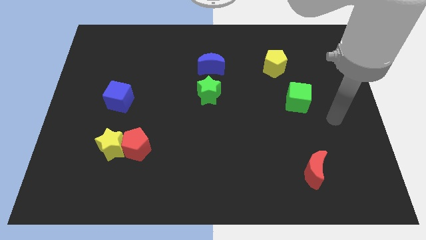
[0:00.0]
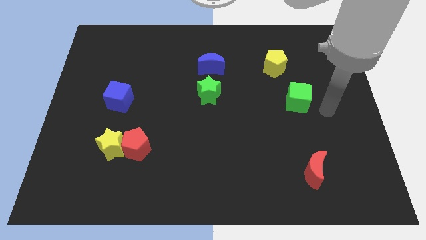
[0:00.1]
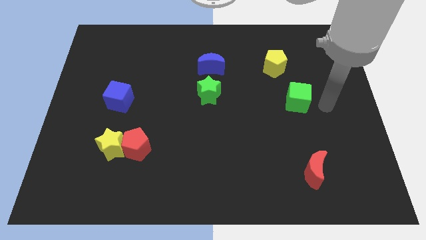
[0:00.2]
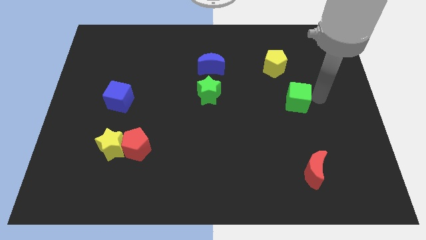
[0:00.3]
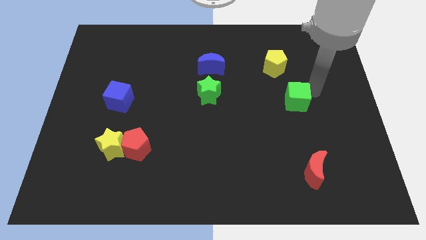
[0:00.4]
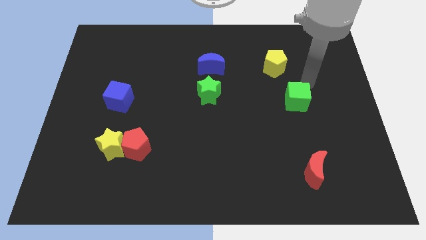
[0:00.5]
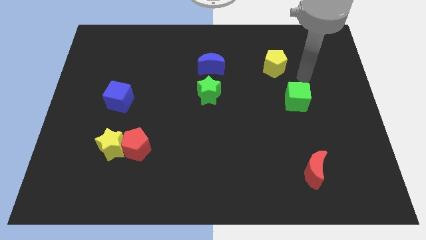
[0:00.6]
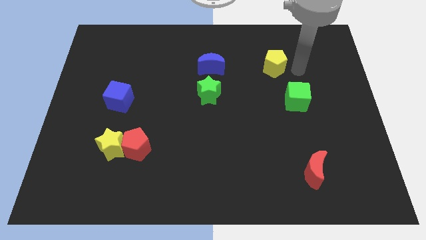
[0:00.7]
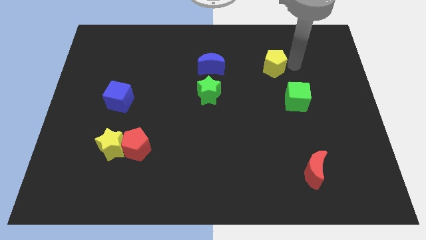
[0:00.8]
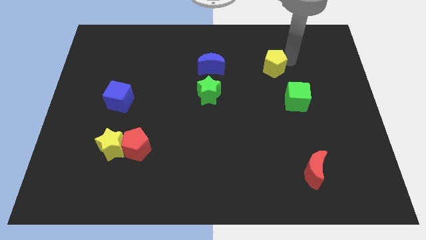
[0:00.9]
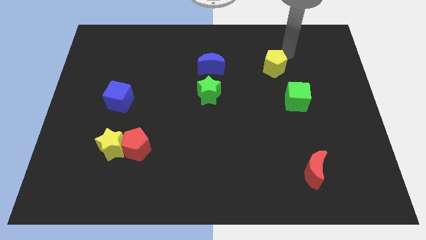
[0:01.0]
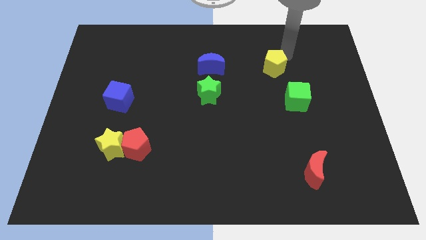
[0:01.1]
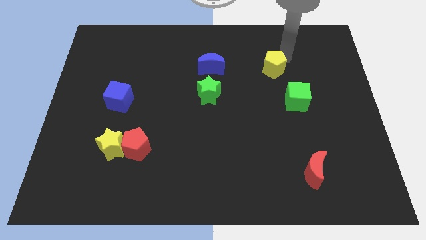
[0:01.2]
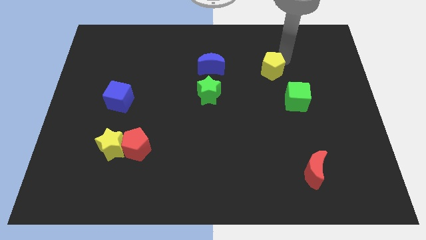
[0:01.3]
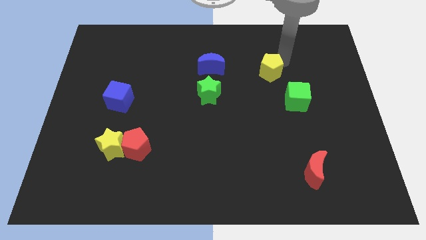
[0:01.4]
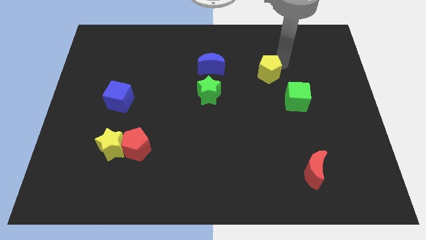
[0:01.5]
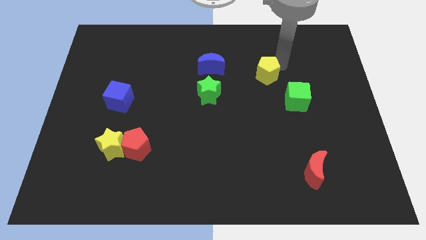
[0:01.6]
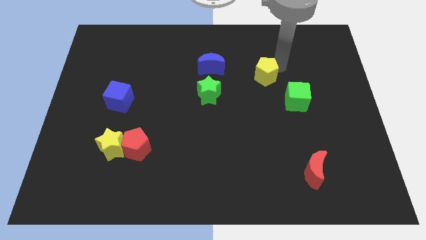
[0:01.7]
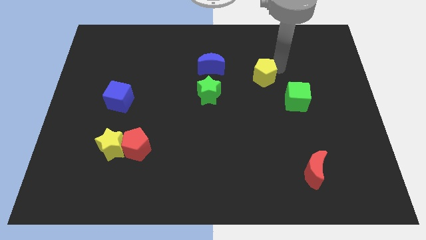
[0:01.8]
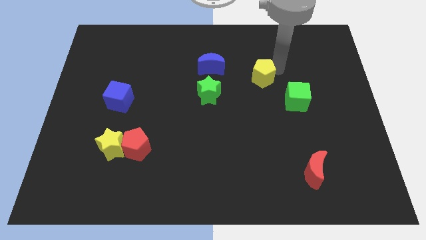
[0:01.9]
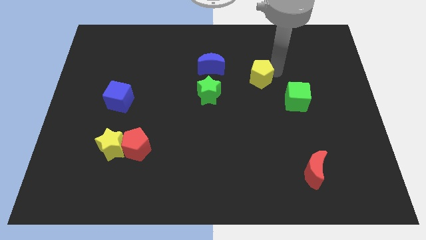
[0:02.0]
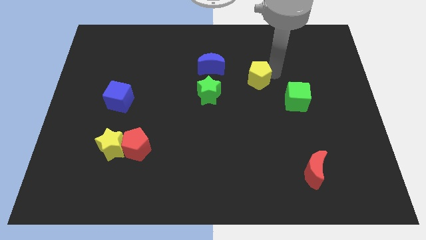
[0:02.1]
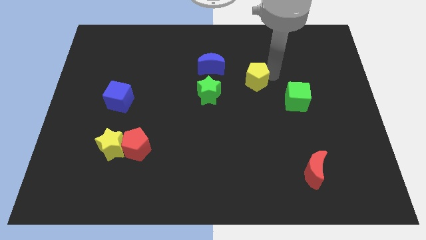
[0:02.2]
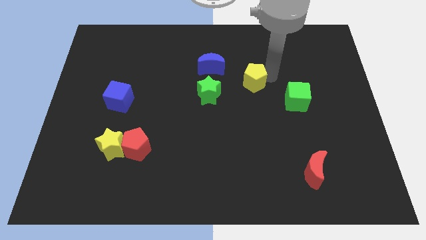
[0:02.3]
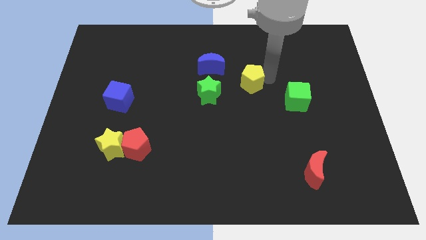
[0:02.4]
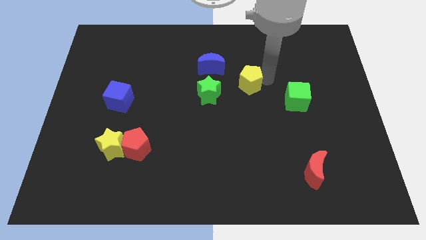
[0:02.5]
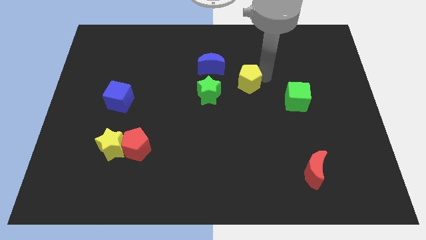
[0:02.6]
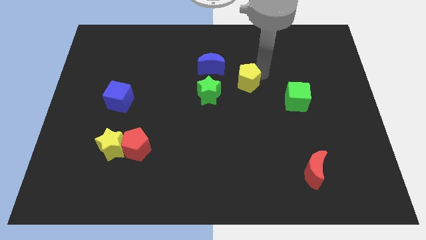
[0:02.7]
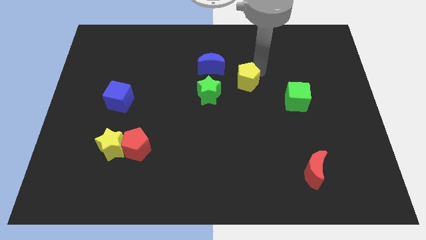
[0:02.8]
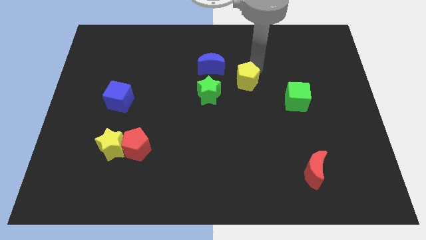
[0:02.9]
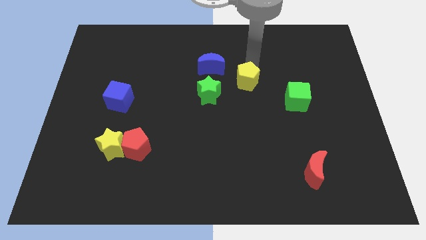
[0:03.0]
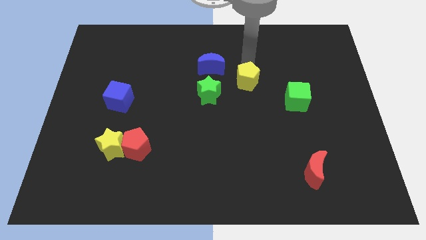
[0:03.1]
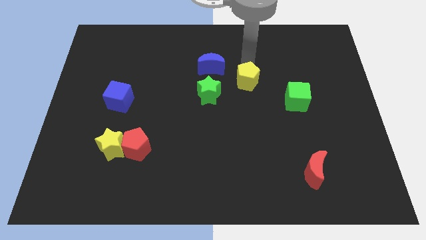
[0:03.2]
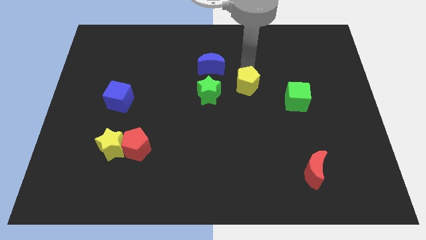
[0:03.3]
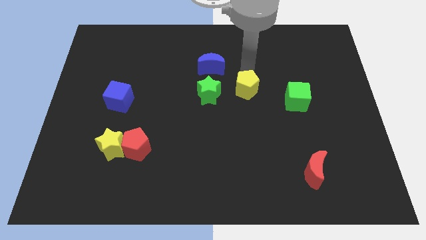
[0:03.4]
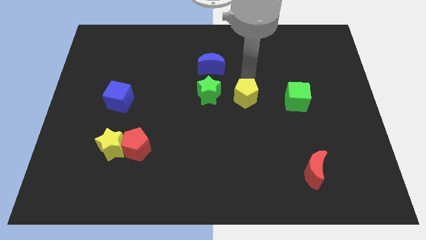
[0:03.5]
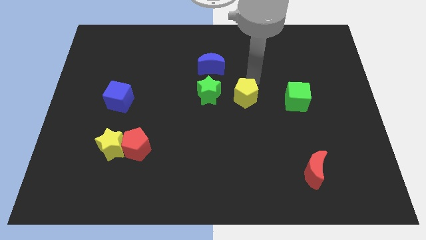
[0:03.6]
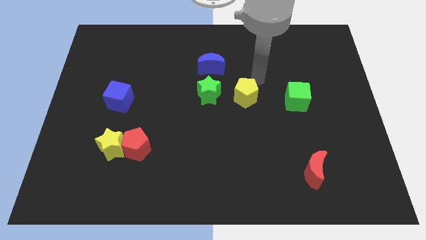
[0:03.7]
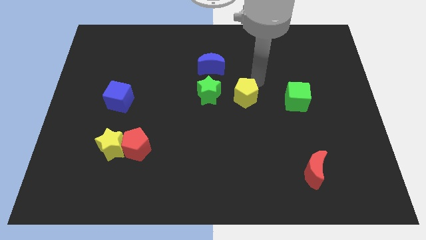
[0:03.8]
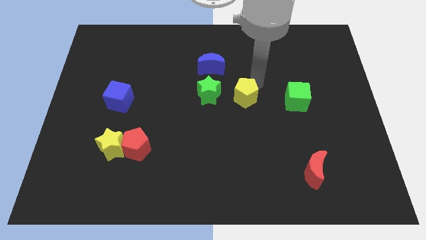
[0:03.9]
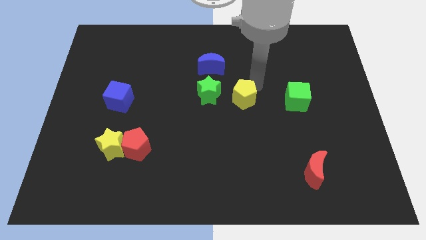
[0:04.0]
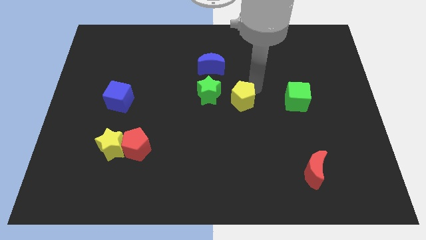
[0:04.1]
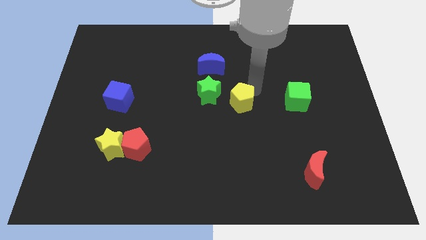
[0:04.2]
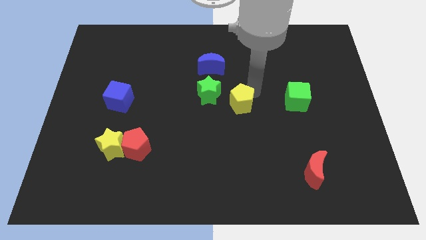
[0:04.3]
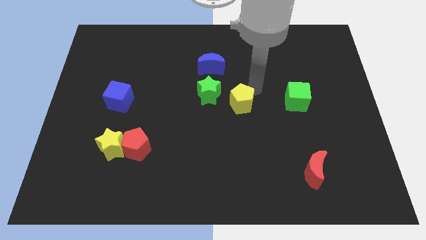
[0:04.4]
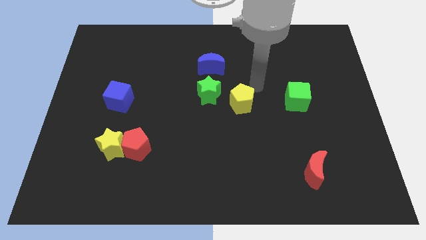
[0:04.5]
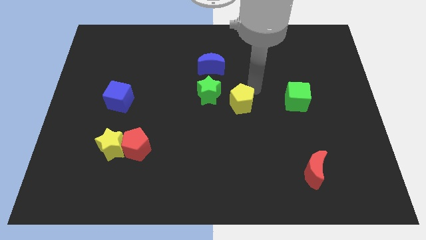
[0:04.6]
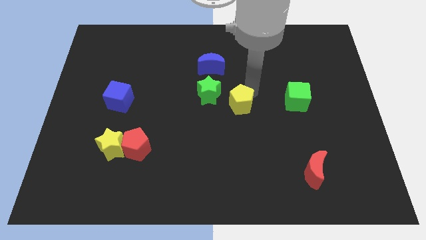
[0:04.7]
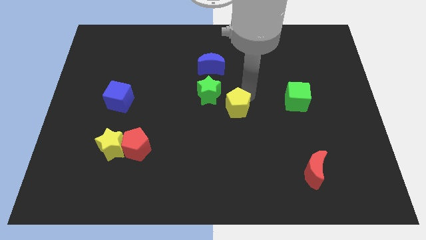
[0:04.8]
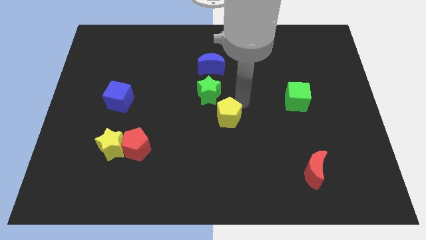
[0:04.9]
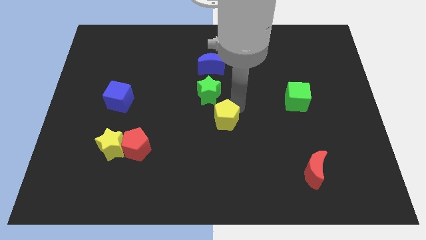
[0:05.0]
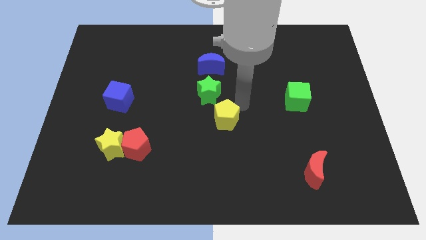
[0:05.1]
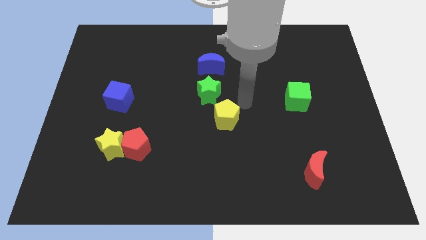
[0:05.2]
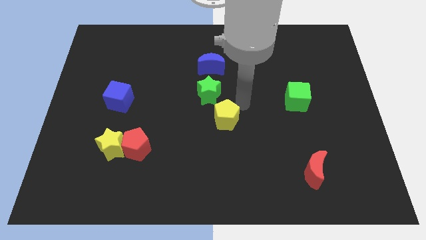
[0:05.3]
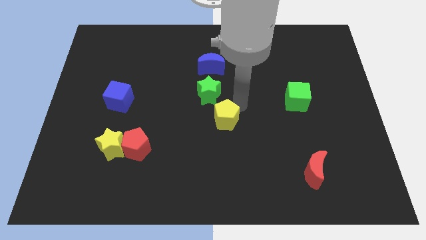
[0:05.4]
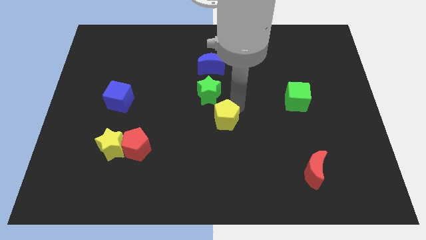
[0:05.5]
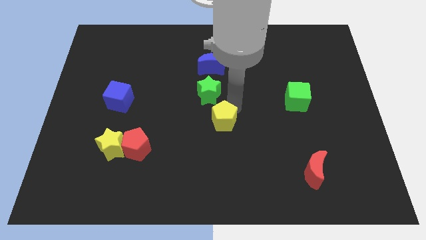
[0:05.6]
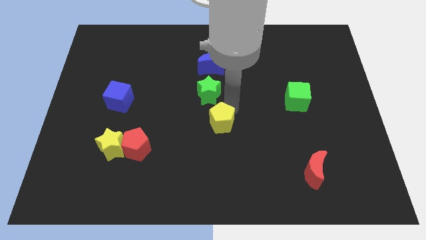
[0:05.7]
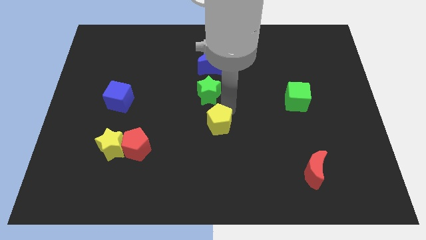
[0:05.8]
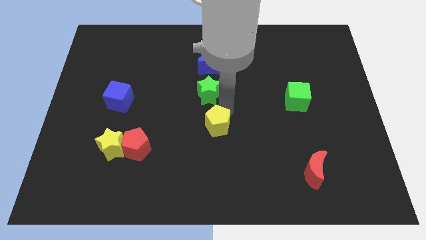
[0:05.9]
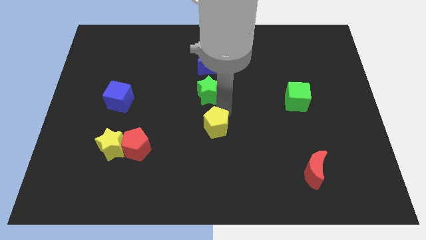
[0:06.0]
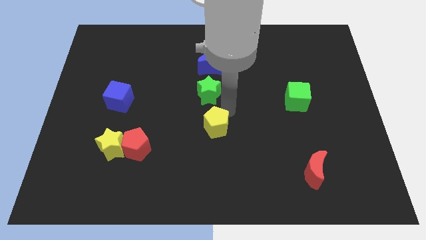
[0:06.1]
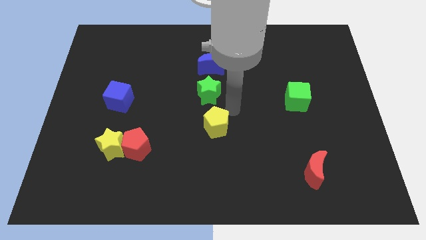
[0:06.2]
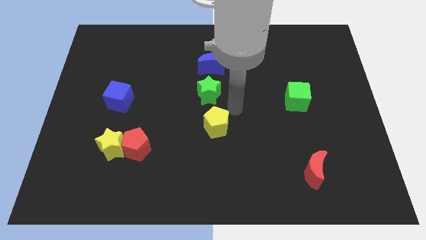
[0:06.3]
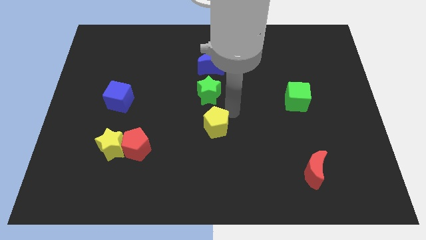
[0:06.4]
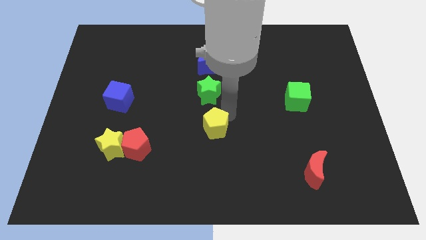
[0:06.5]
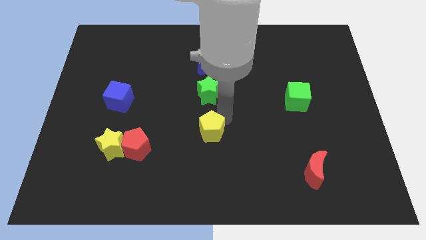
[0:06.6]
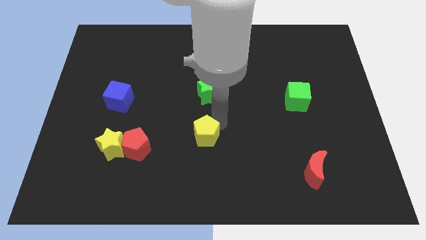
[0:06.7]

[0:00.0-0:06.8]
slide the yellow pentagon right of the red pentagon
